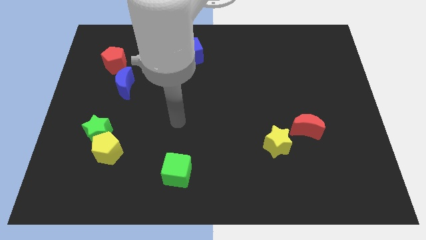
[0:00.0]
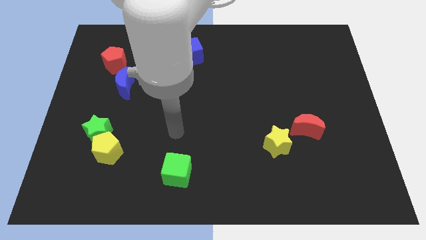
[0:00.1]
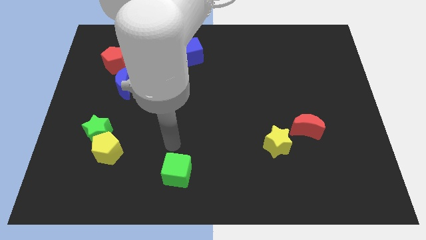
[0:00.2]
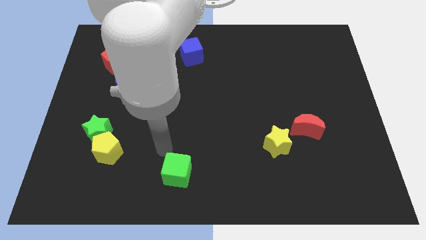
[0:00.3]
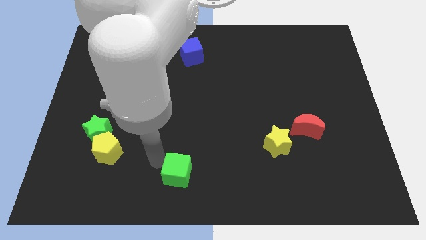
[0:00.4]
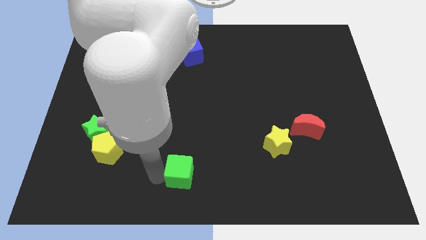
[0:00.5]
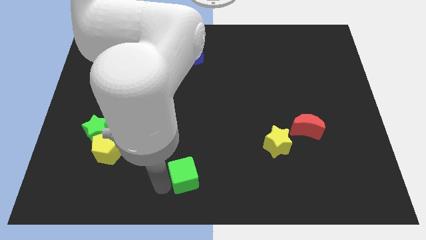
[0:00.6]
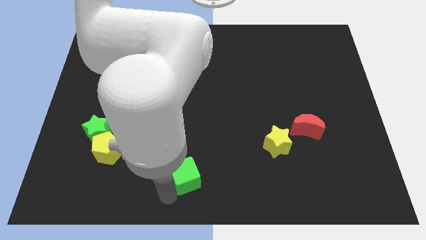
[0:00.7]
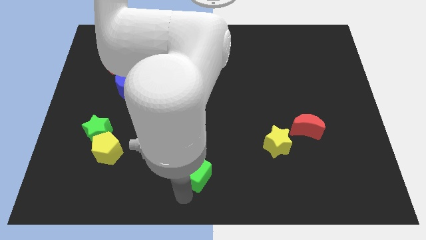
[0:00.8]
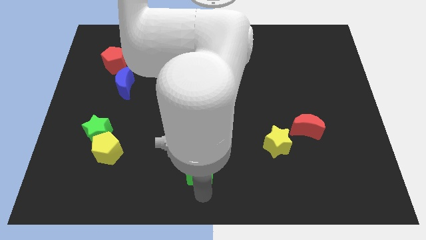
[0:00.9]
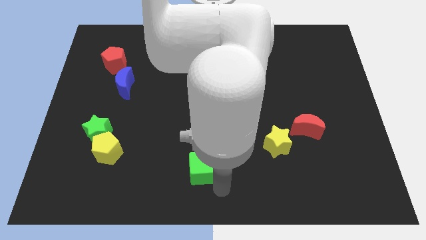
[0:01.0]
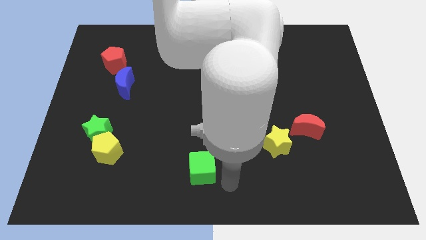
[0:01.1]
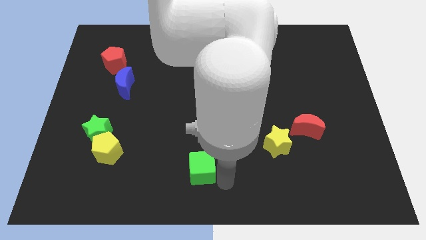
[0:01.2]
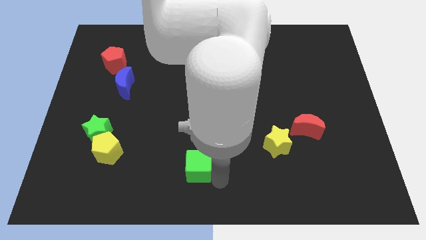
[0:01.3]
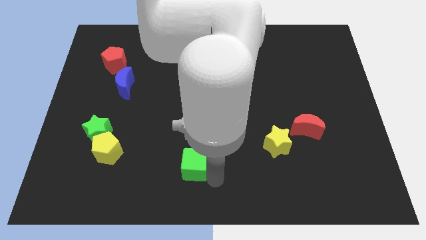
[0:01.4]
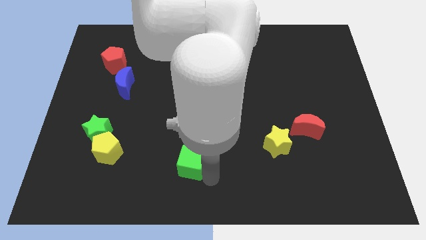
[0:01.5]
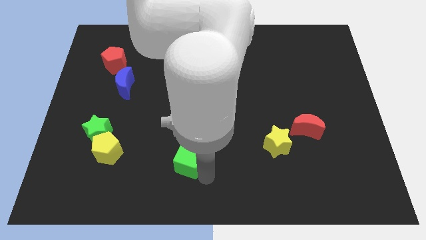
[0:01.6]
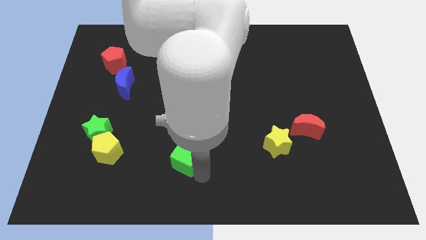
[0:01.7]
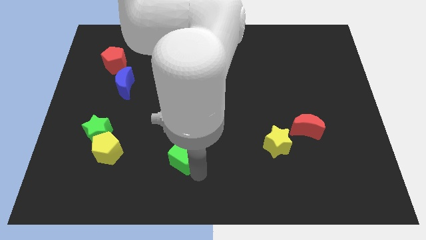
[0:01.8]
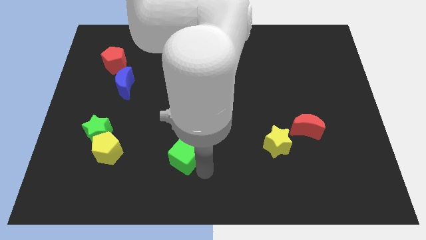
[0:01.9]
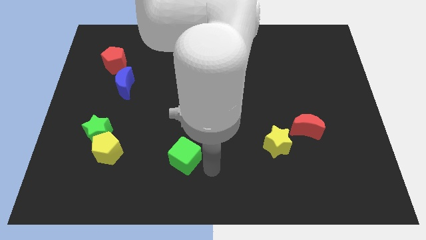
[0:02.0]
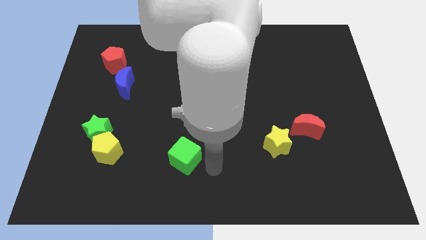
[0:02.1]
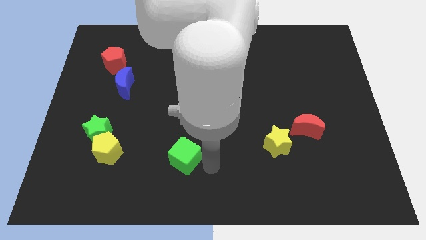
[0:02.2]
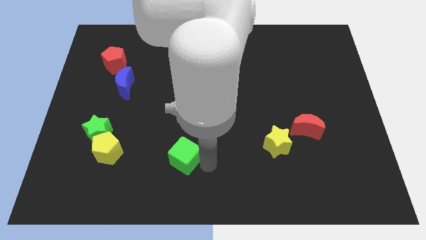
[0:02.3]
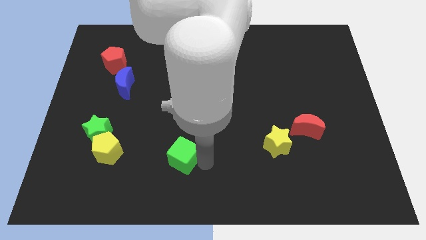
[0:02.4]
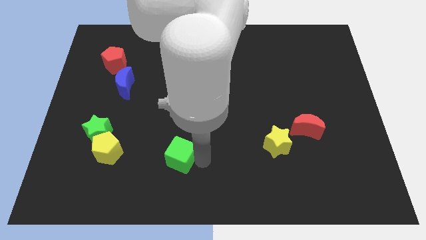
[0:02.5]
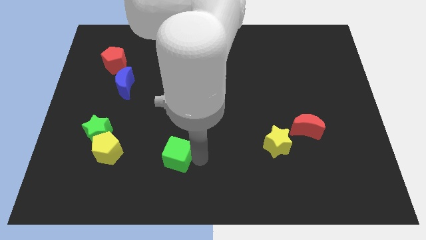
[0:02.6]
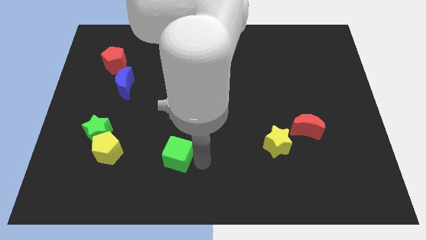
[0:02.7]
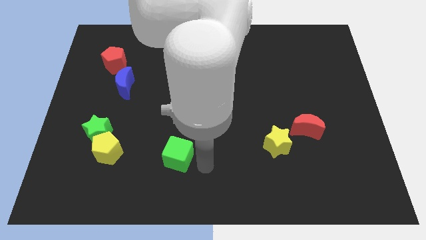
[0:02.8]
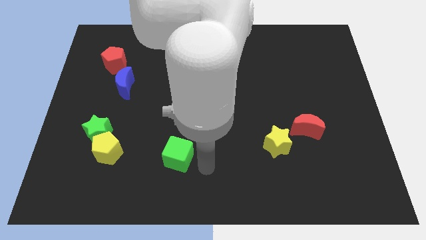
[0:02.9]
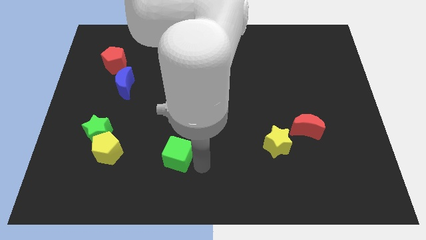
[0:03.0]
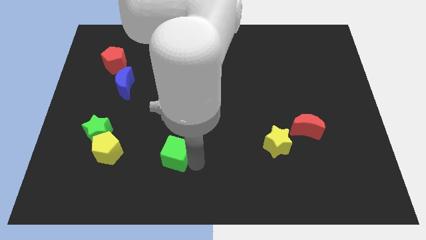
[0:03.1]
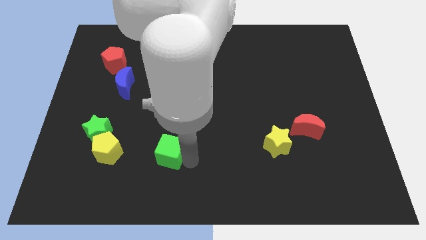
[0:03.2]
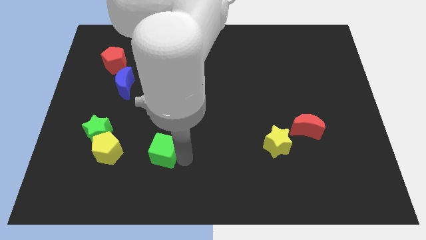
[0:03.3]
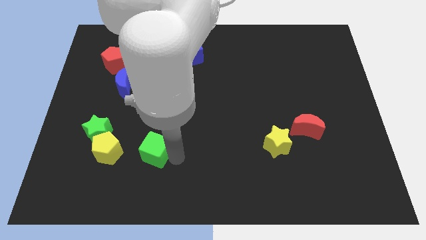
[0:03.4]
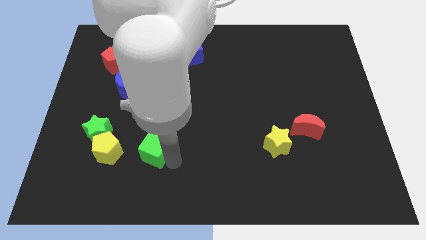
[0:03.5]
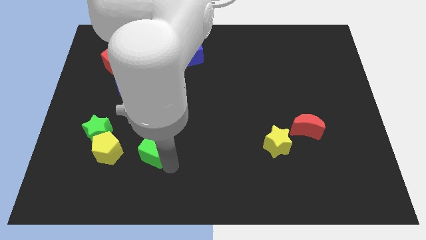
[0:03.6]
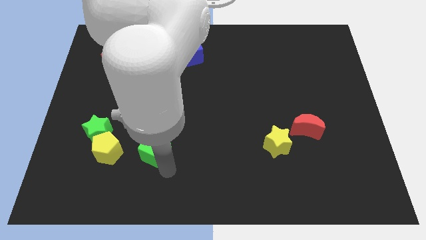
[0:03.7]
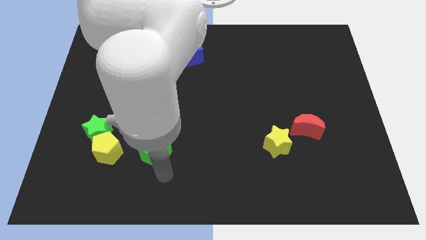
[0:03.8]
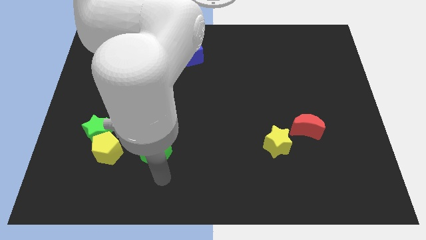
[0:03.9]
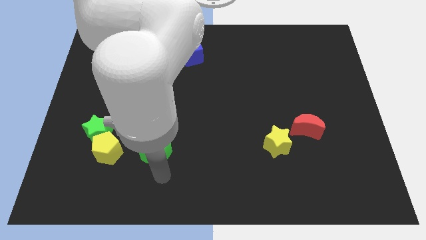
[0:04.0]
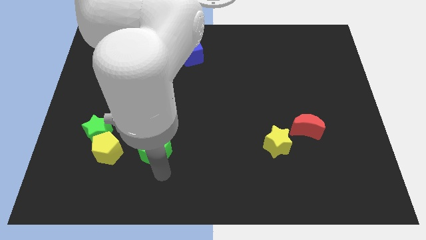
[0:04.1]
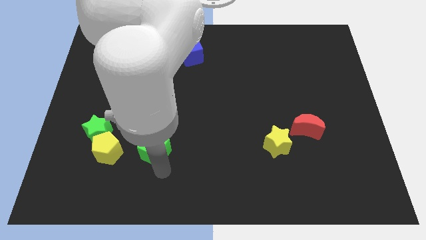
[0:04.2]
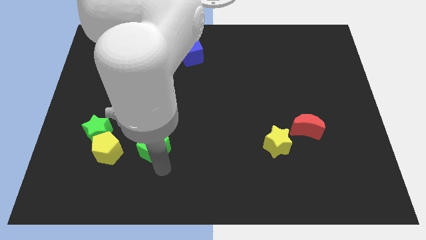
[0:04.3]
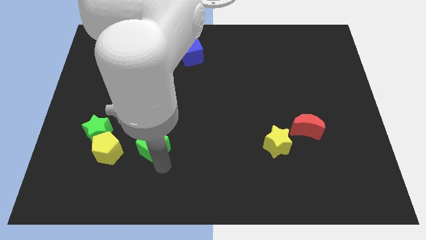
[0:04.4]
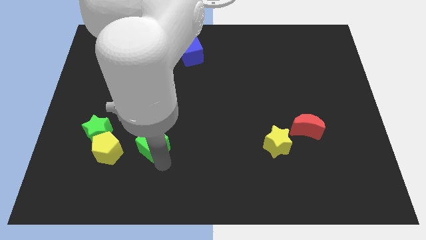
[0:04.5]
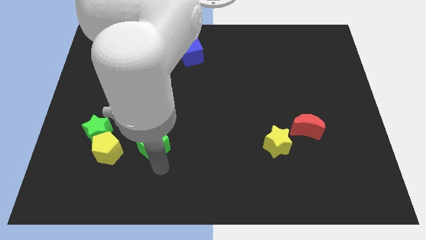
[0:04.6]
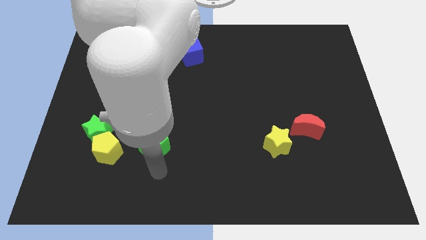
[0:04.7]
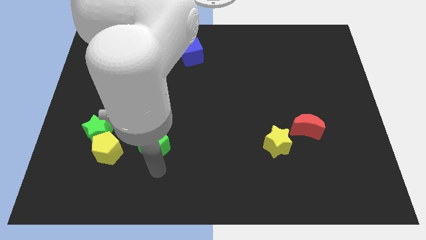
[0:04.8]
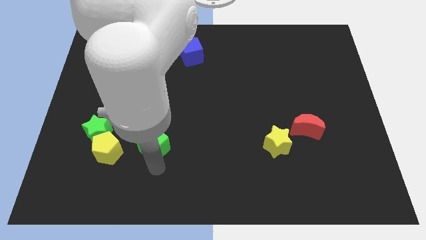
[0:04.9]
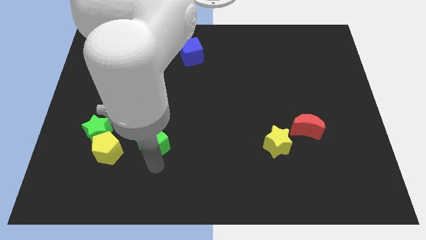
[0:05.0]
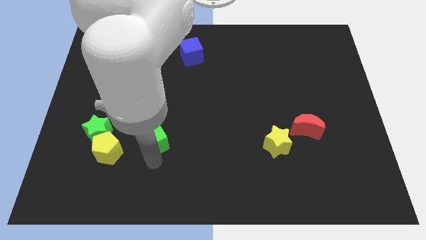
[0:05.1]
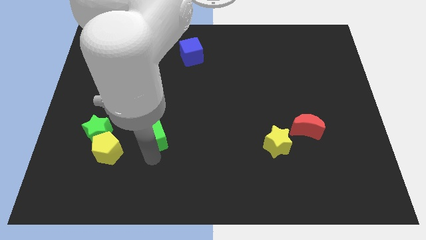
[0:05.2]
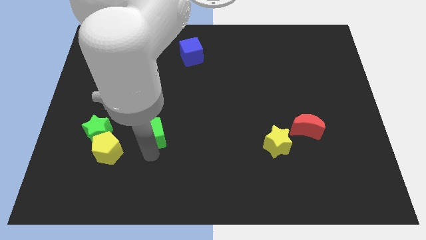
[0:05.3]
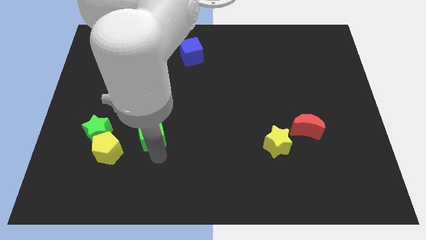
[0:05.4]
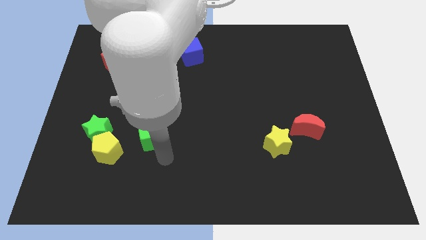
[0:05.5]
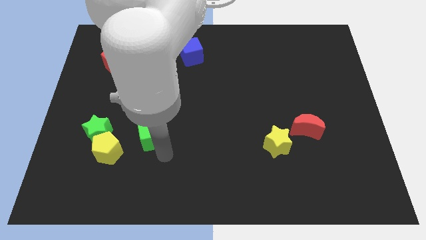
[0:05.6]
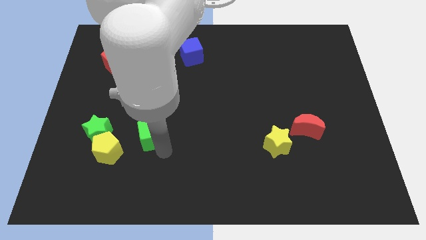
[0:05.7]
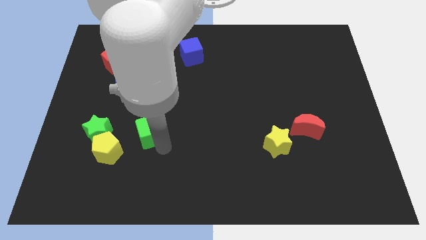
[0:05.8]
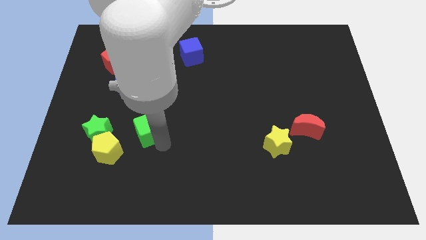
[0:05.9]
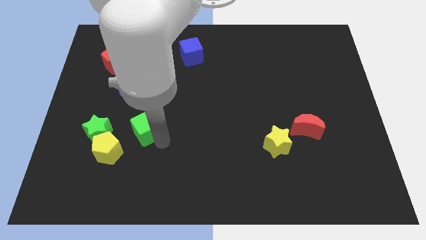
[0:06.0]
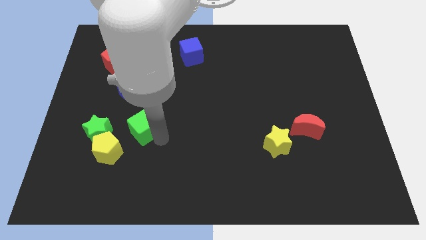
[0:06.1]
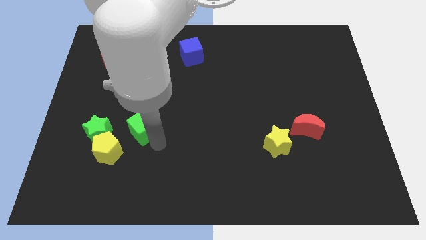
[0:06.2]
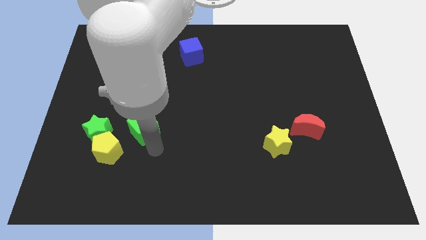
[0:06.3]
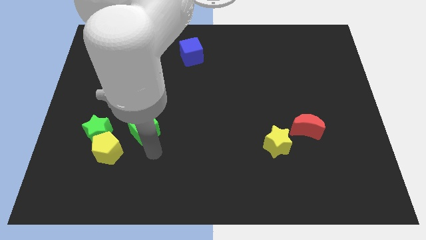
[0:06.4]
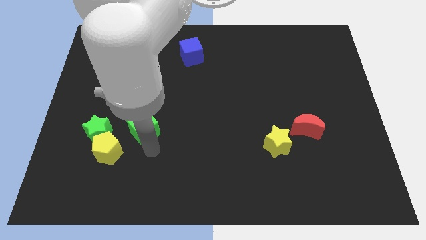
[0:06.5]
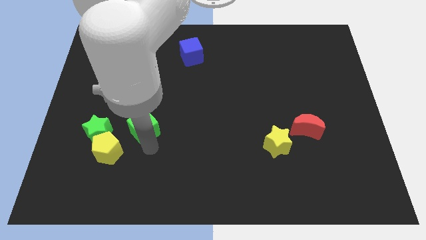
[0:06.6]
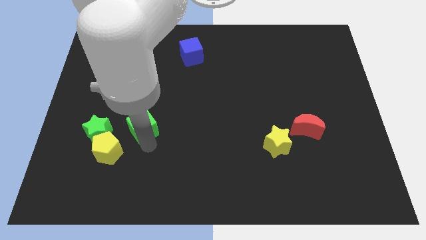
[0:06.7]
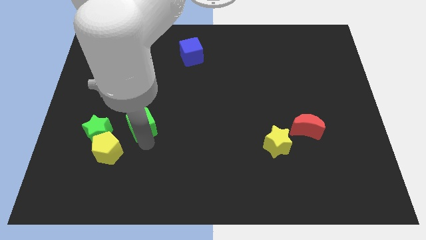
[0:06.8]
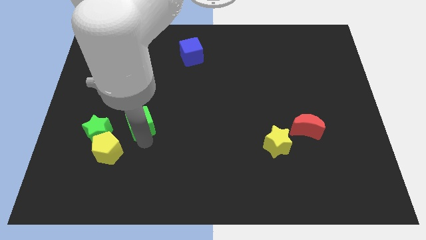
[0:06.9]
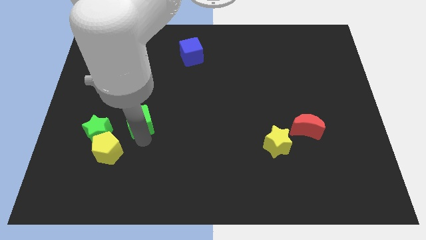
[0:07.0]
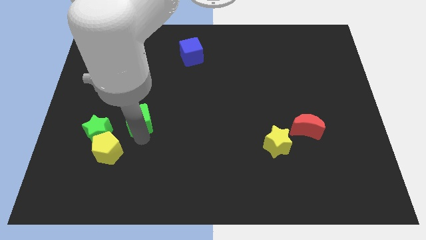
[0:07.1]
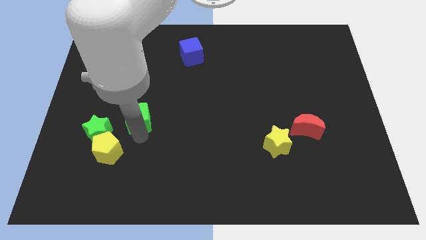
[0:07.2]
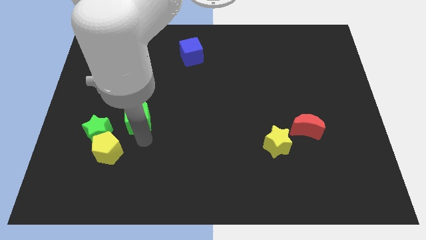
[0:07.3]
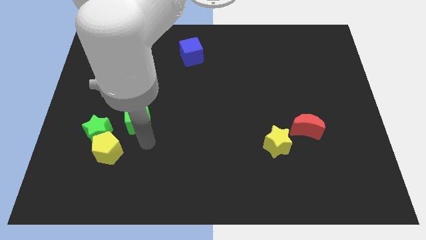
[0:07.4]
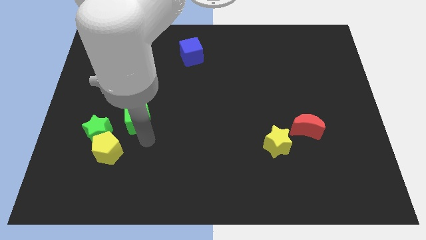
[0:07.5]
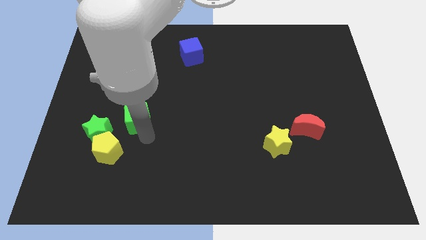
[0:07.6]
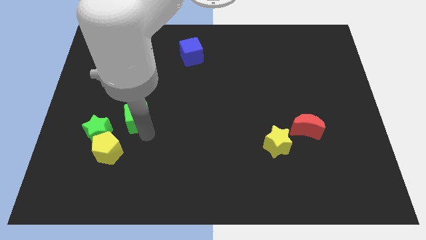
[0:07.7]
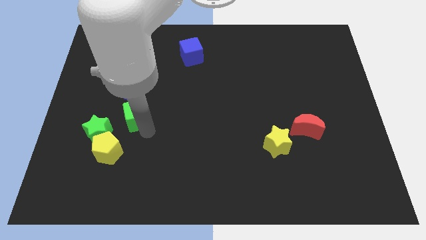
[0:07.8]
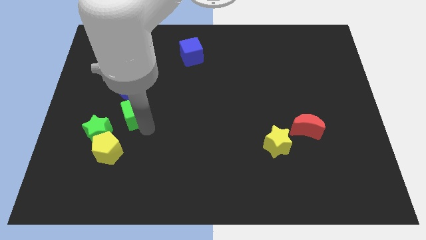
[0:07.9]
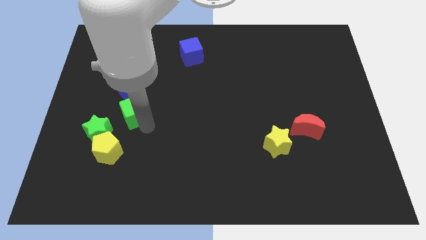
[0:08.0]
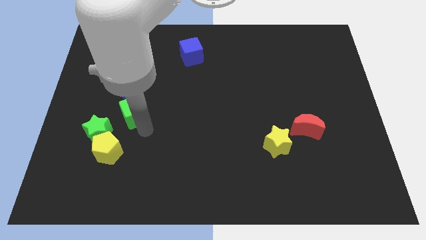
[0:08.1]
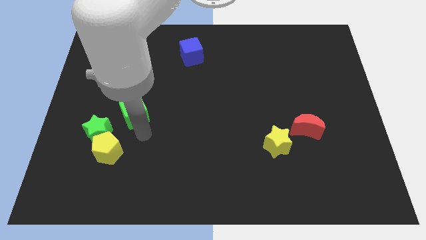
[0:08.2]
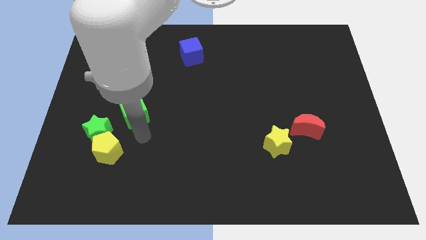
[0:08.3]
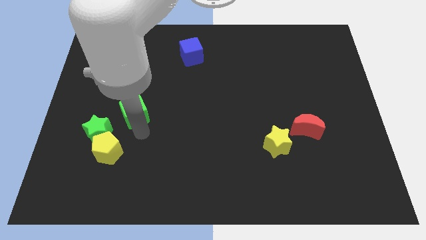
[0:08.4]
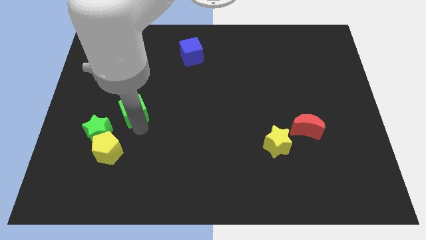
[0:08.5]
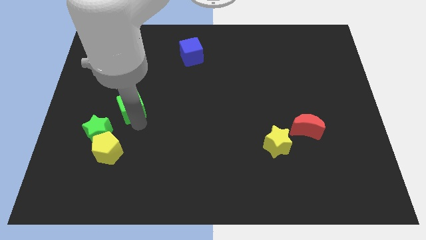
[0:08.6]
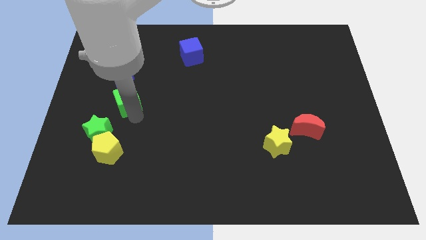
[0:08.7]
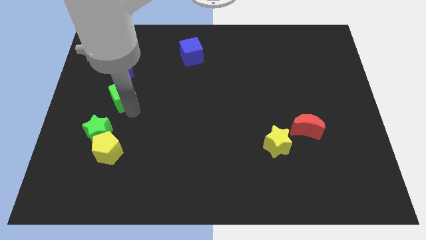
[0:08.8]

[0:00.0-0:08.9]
move the green cube next to the blue moon
